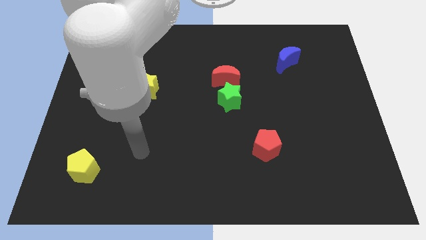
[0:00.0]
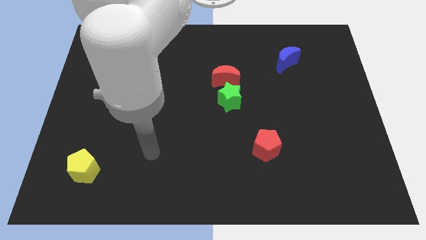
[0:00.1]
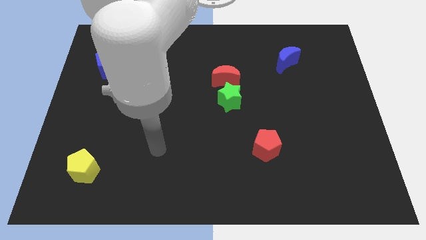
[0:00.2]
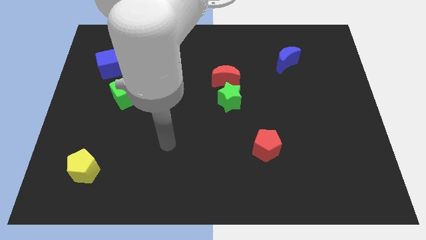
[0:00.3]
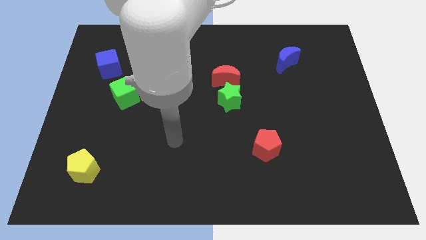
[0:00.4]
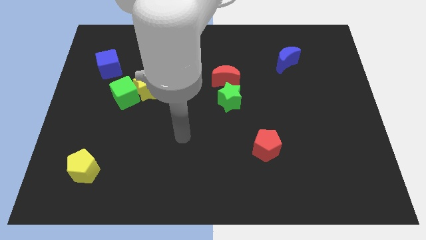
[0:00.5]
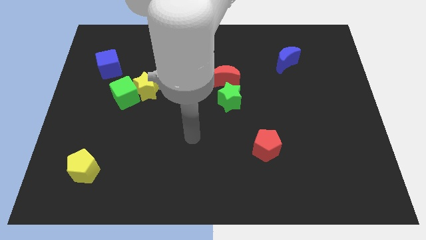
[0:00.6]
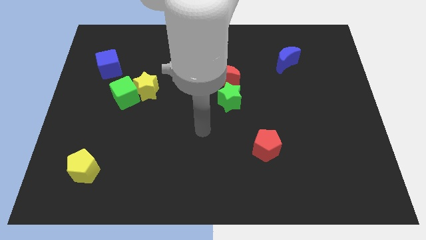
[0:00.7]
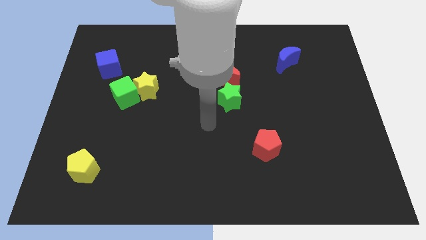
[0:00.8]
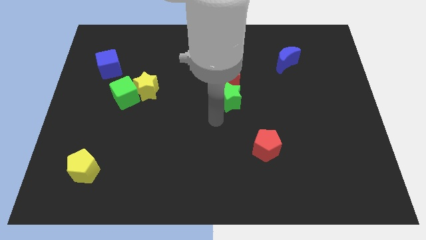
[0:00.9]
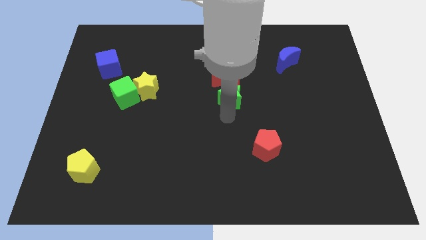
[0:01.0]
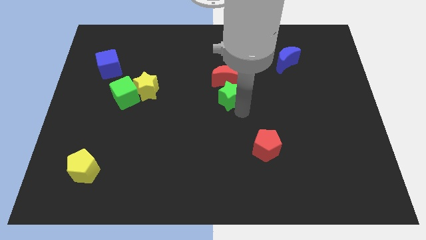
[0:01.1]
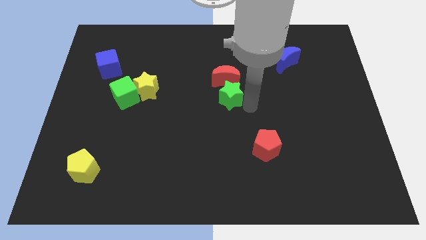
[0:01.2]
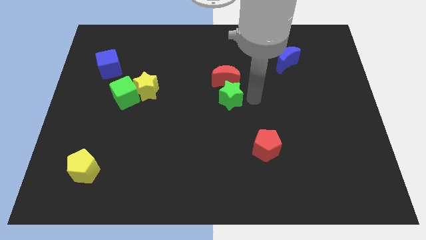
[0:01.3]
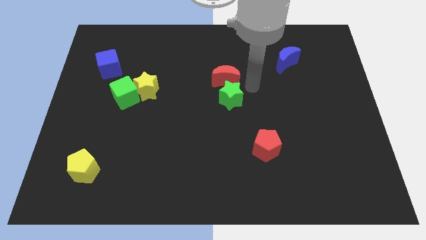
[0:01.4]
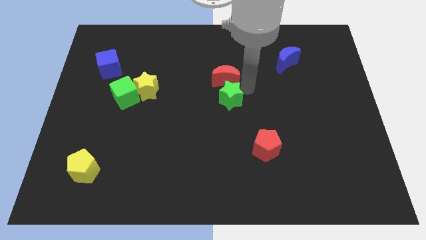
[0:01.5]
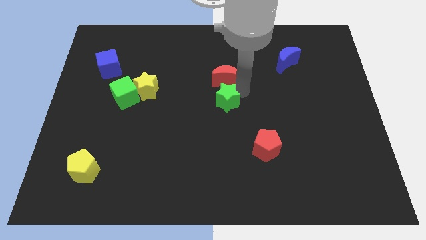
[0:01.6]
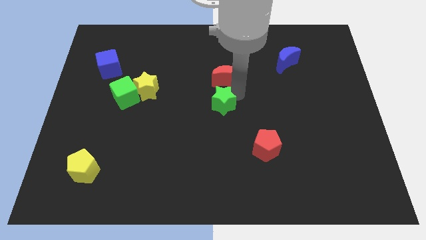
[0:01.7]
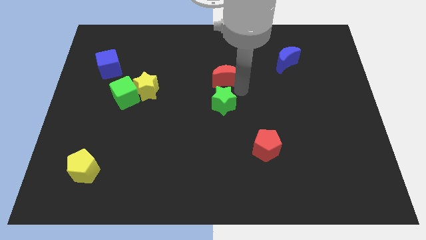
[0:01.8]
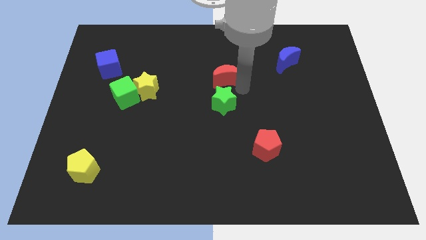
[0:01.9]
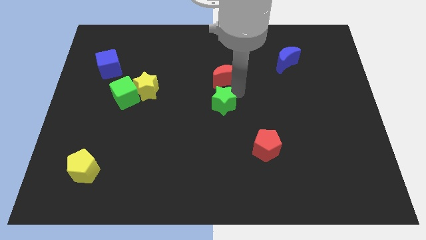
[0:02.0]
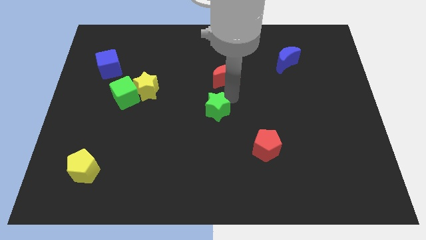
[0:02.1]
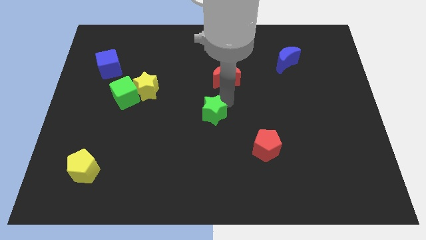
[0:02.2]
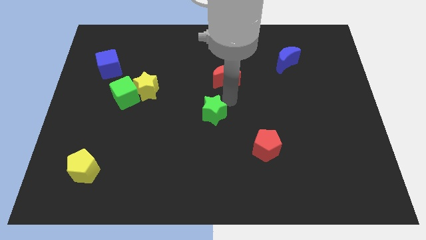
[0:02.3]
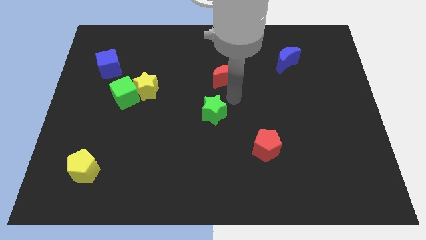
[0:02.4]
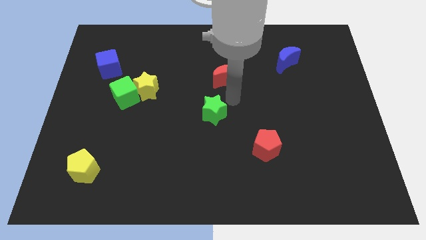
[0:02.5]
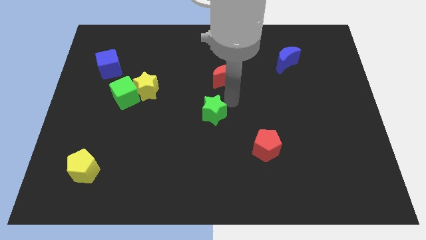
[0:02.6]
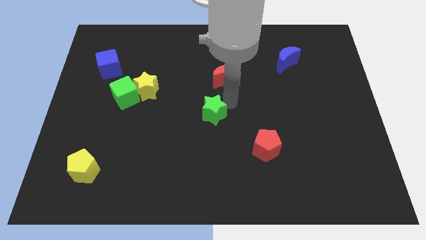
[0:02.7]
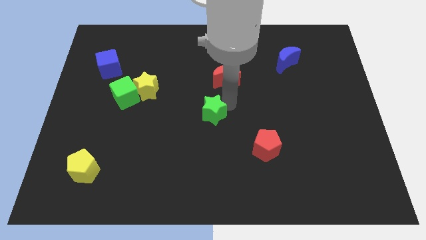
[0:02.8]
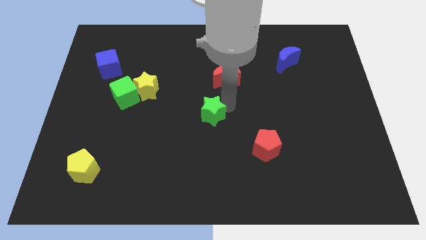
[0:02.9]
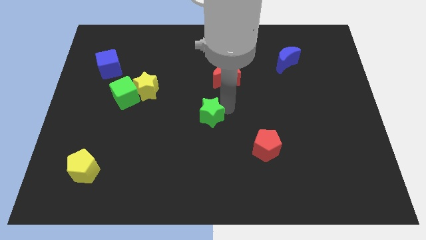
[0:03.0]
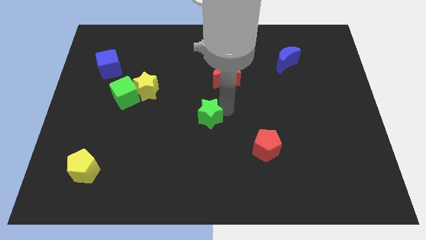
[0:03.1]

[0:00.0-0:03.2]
slightly push the green star down and to the left

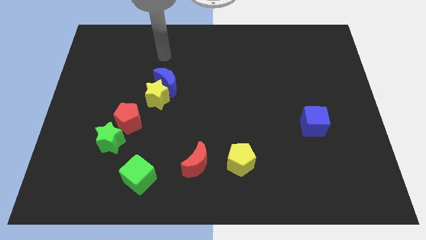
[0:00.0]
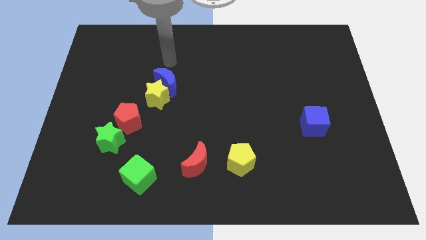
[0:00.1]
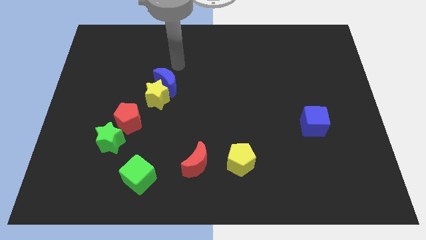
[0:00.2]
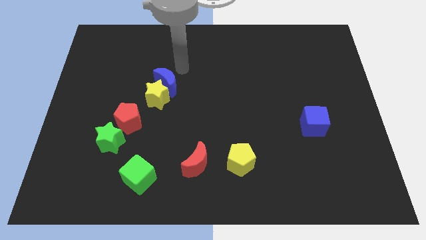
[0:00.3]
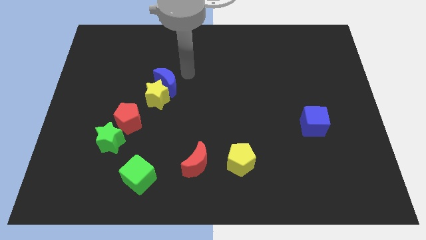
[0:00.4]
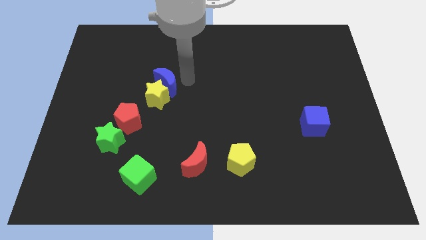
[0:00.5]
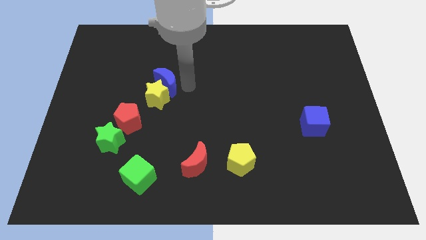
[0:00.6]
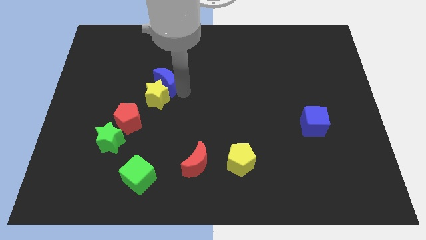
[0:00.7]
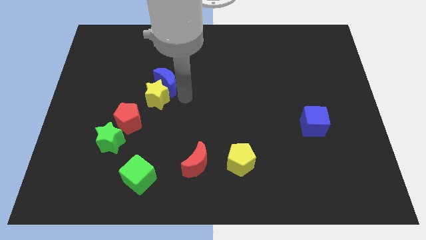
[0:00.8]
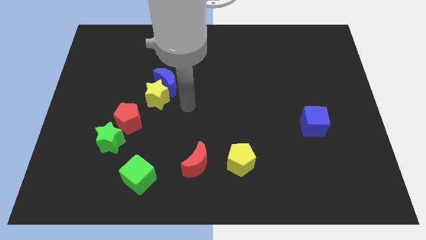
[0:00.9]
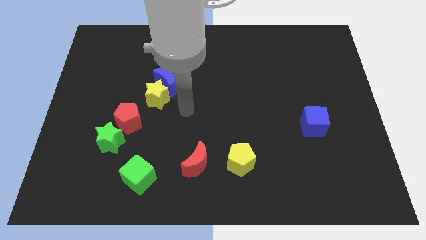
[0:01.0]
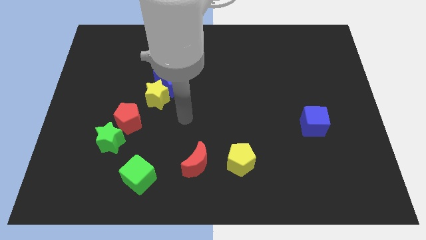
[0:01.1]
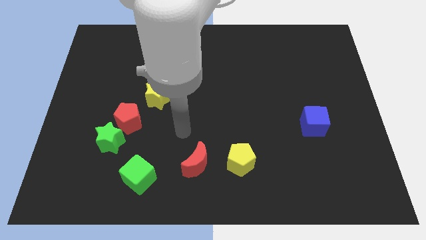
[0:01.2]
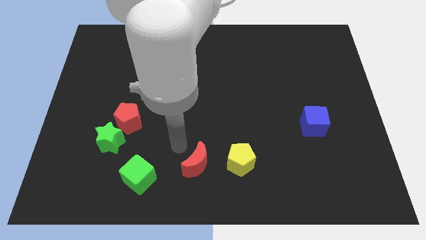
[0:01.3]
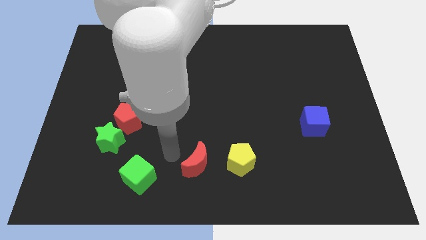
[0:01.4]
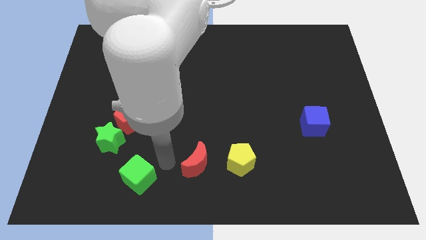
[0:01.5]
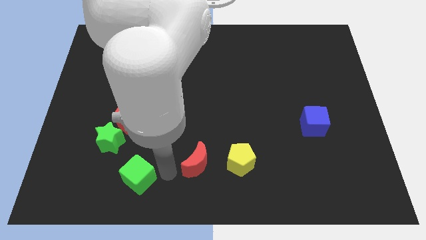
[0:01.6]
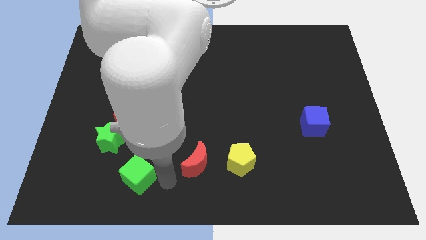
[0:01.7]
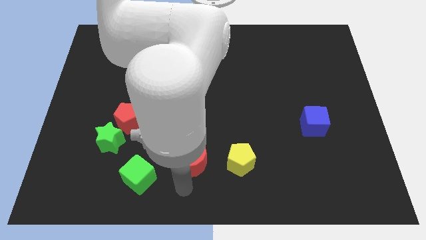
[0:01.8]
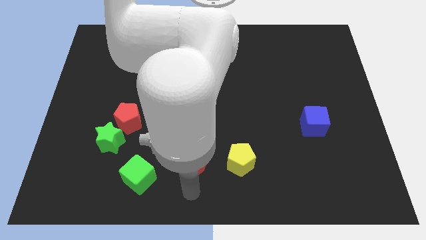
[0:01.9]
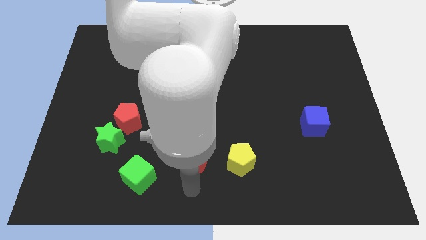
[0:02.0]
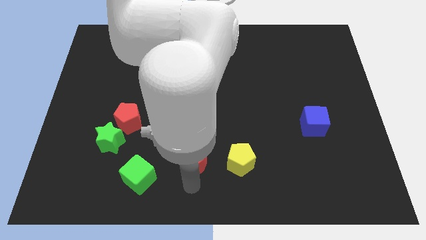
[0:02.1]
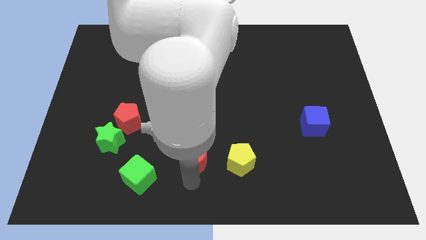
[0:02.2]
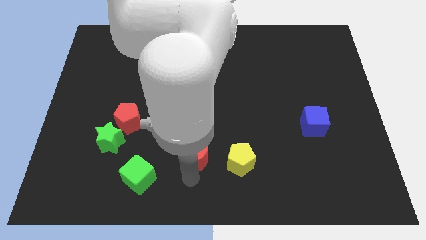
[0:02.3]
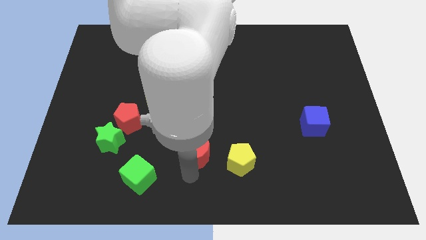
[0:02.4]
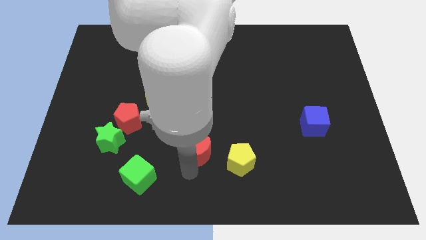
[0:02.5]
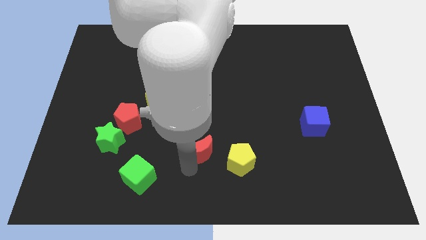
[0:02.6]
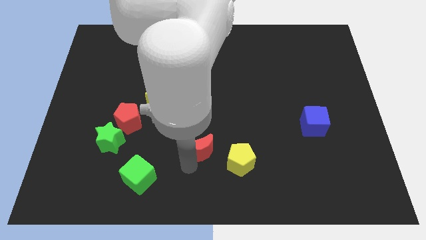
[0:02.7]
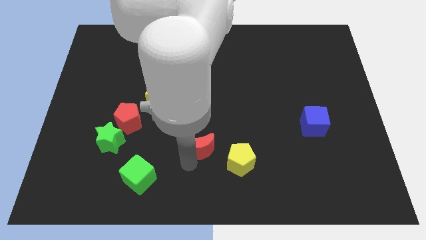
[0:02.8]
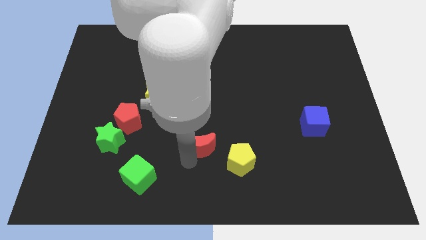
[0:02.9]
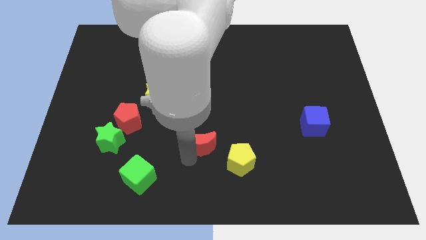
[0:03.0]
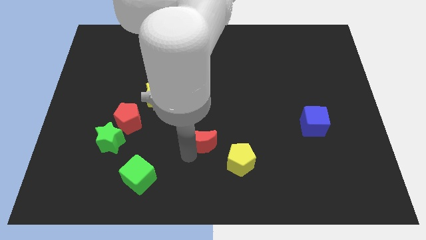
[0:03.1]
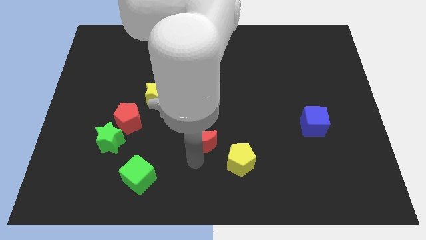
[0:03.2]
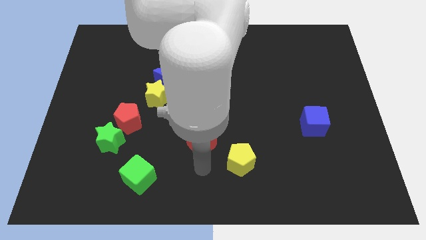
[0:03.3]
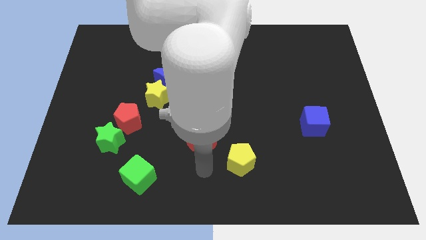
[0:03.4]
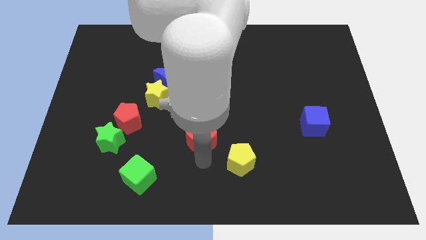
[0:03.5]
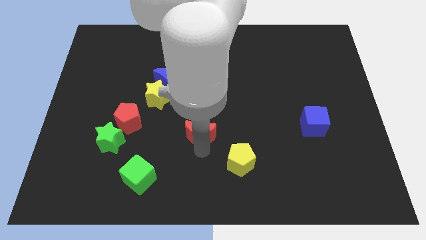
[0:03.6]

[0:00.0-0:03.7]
push the red moon up a little bit

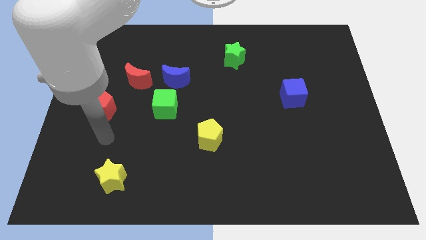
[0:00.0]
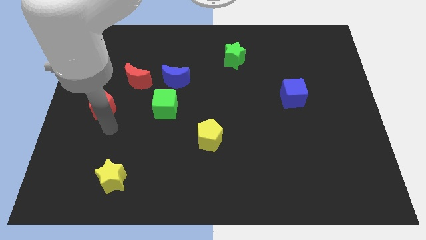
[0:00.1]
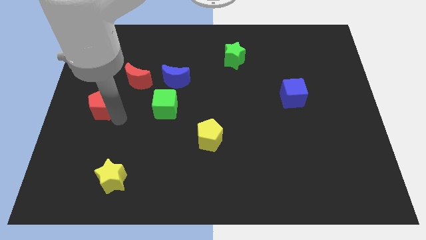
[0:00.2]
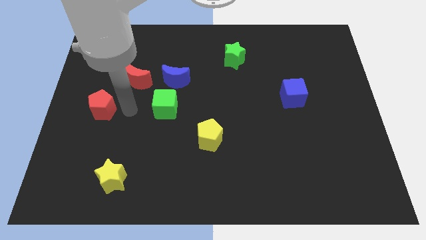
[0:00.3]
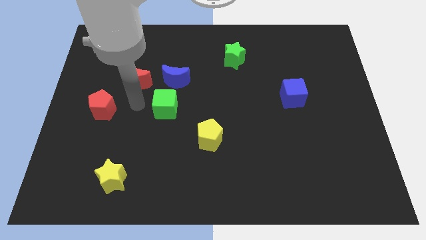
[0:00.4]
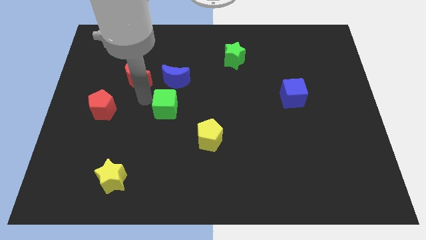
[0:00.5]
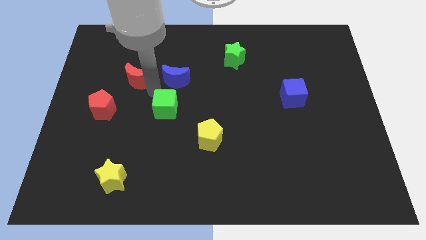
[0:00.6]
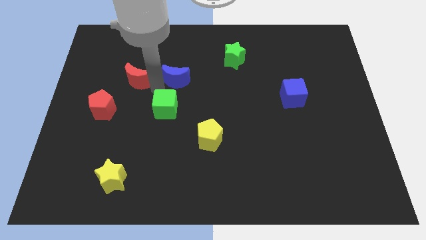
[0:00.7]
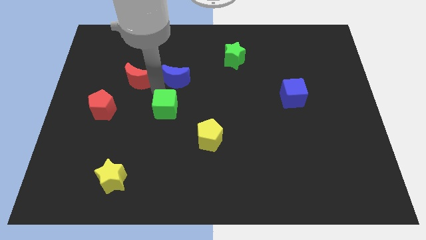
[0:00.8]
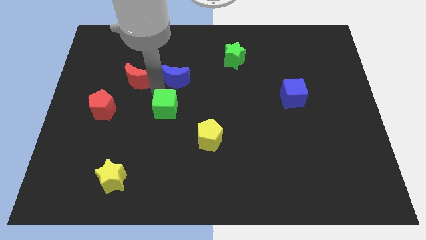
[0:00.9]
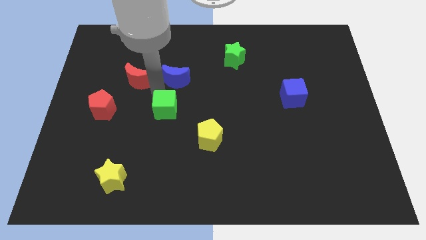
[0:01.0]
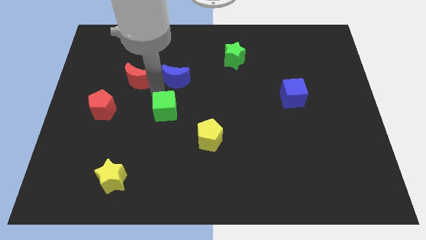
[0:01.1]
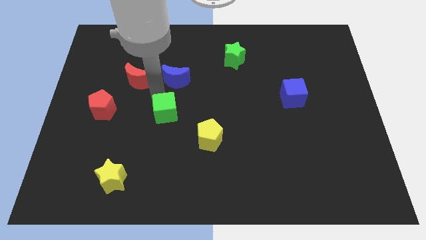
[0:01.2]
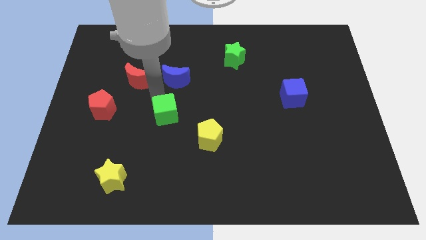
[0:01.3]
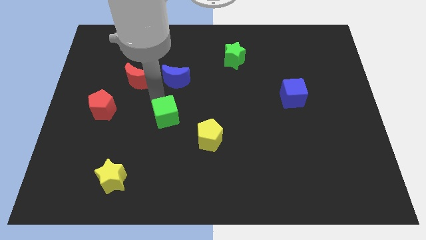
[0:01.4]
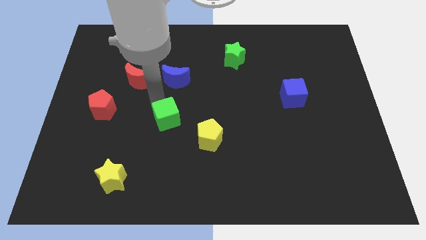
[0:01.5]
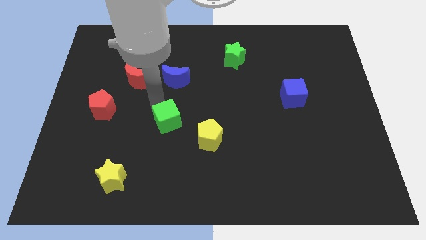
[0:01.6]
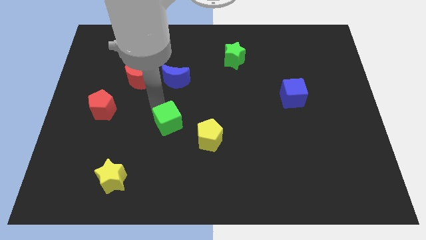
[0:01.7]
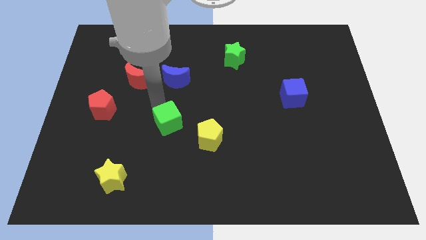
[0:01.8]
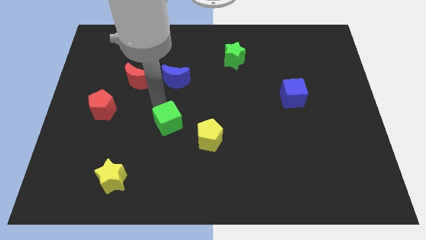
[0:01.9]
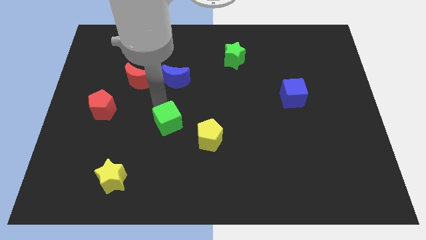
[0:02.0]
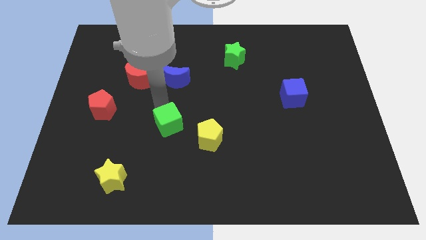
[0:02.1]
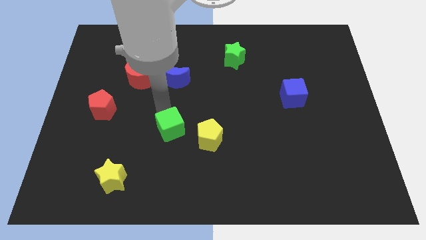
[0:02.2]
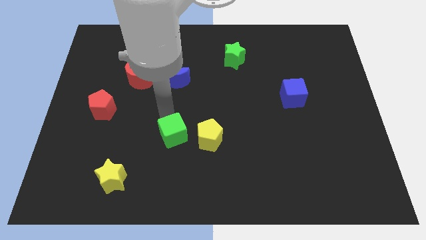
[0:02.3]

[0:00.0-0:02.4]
move the green cube a little bit downwards
